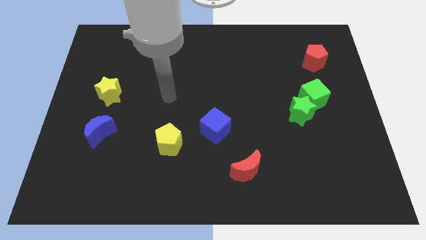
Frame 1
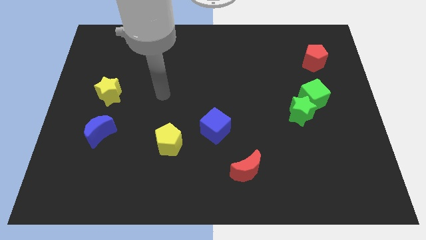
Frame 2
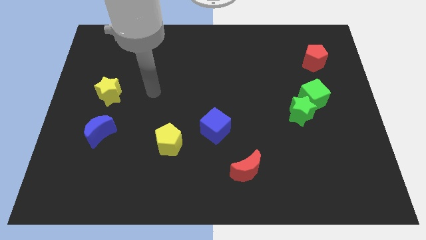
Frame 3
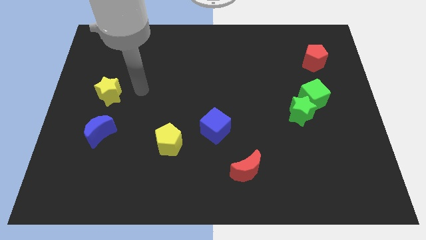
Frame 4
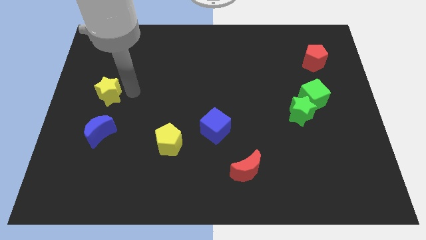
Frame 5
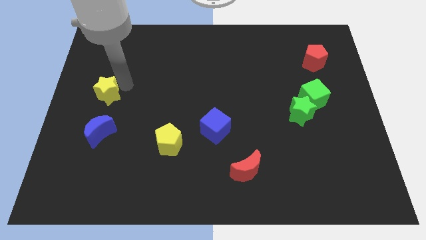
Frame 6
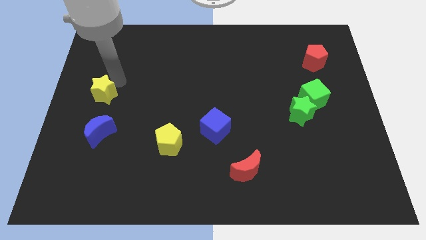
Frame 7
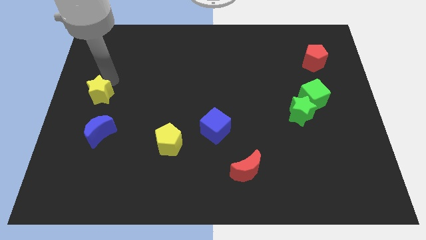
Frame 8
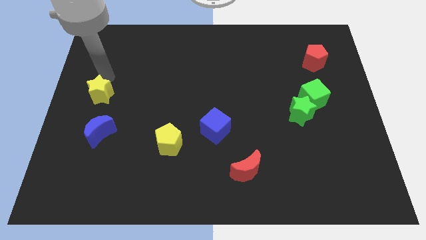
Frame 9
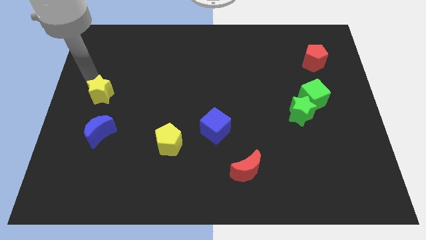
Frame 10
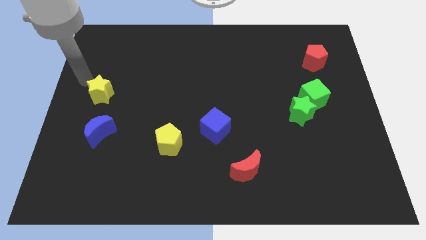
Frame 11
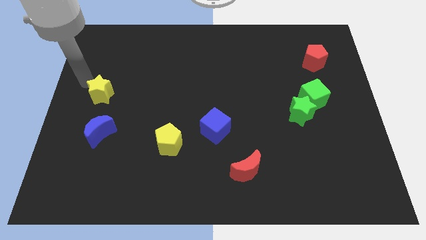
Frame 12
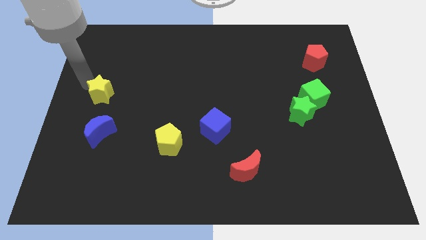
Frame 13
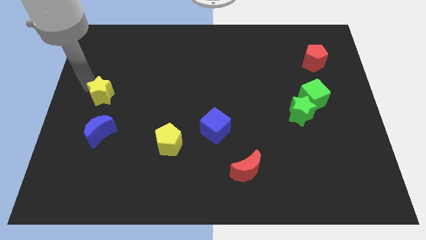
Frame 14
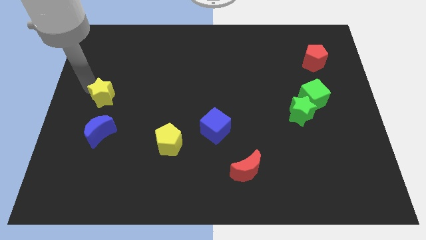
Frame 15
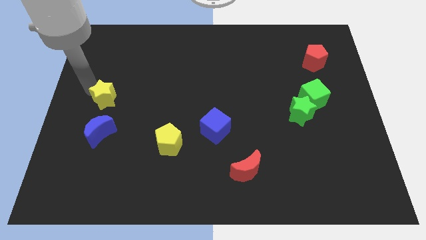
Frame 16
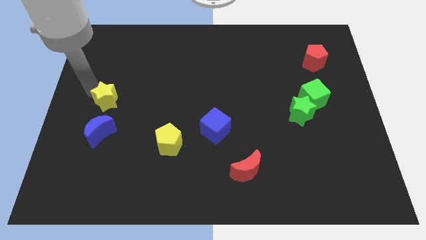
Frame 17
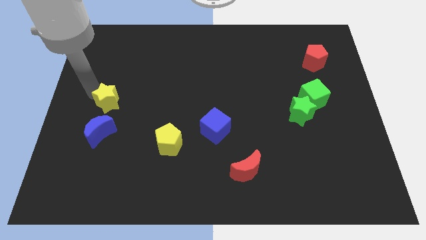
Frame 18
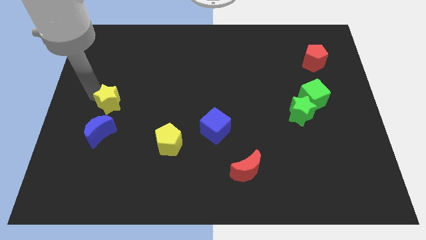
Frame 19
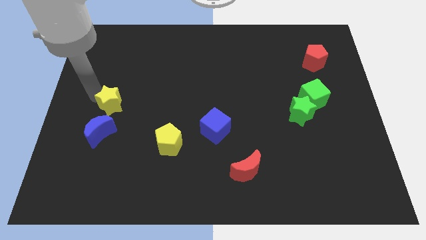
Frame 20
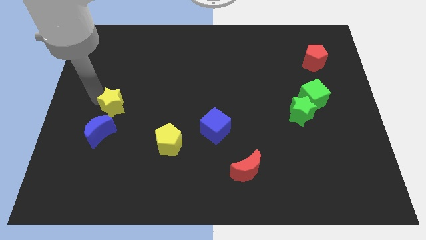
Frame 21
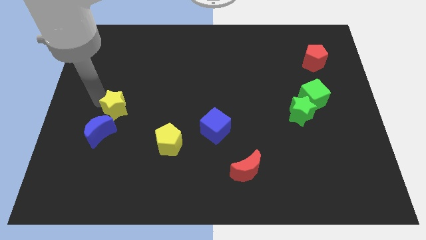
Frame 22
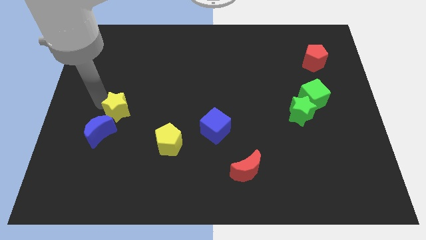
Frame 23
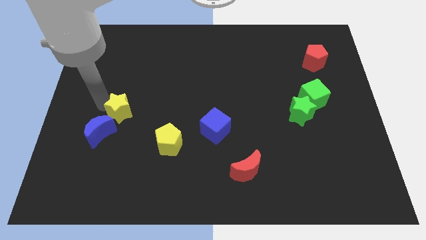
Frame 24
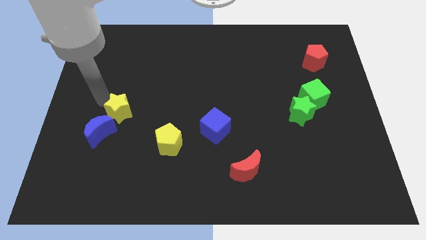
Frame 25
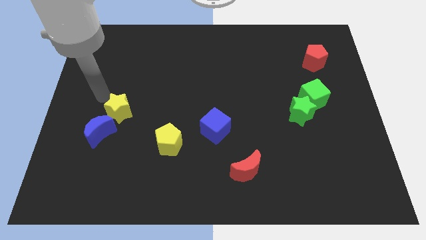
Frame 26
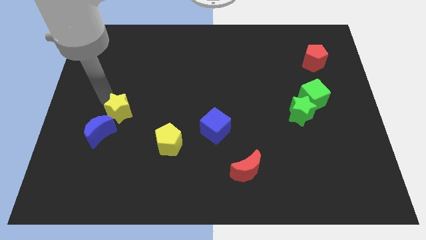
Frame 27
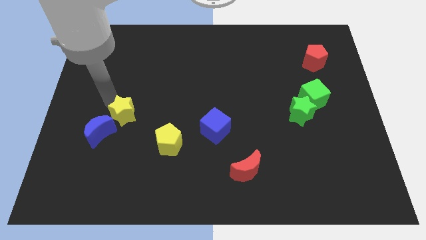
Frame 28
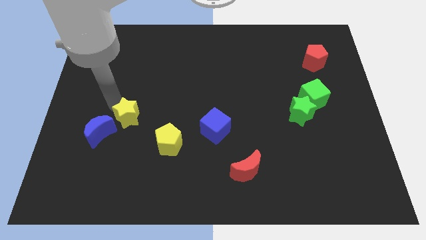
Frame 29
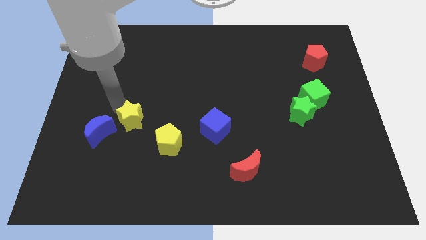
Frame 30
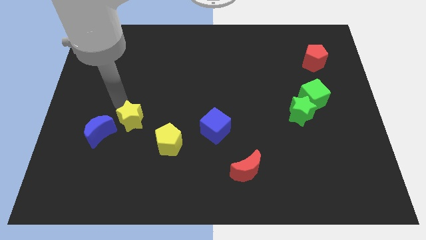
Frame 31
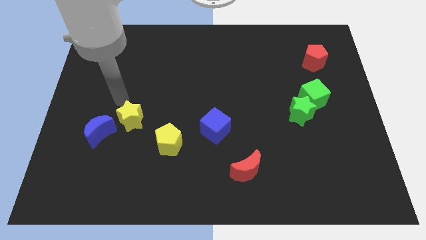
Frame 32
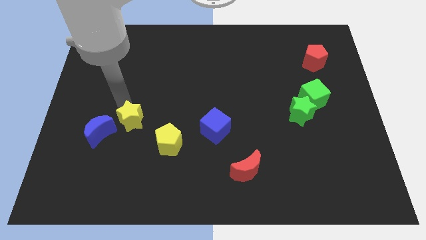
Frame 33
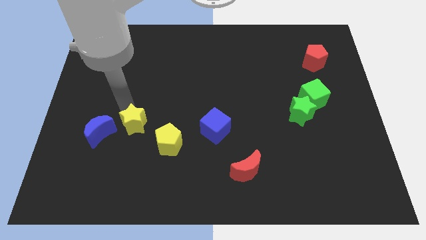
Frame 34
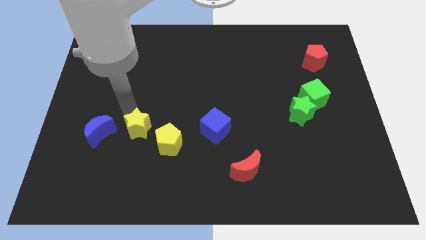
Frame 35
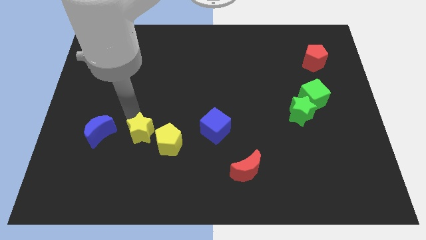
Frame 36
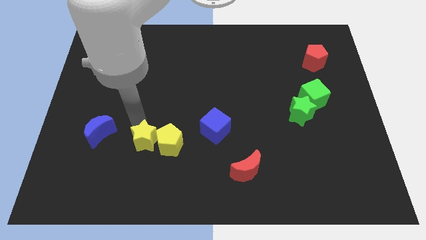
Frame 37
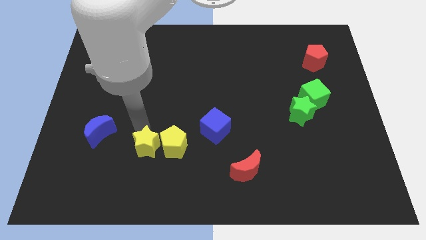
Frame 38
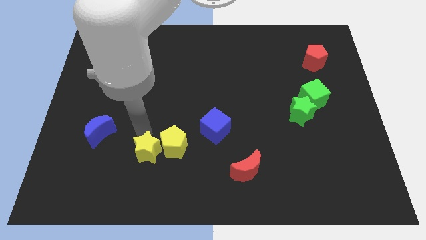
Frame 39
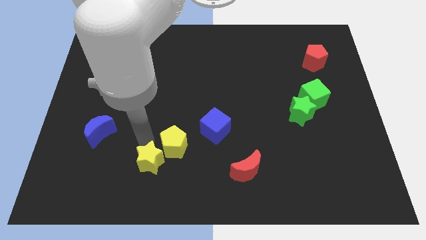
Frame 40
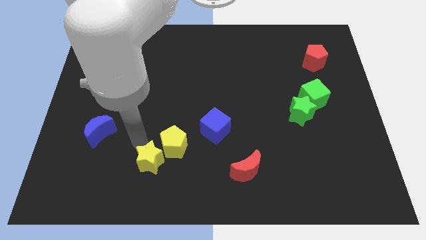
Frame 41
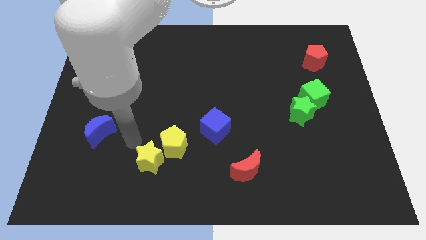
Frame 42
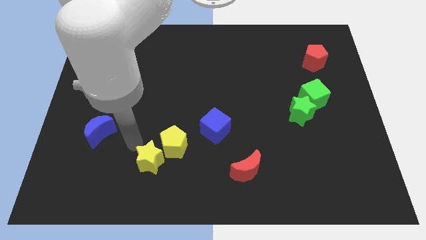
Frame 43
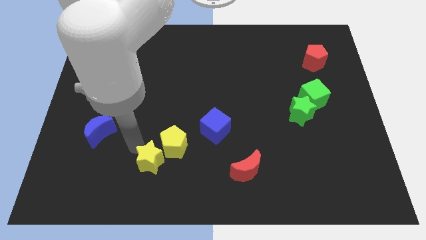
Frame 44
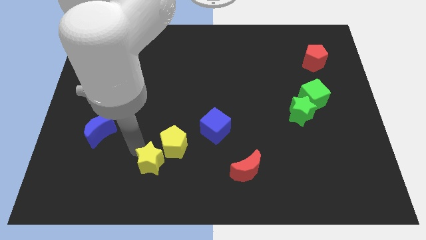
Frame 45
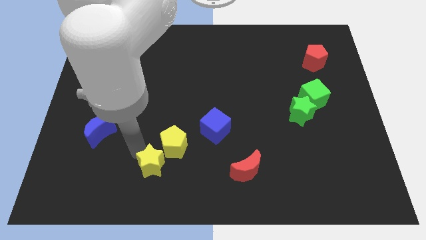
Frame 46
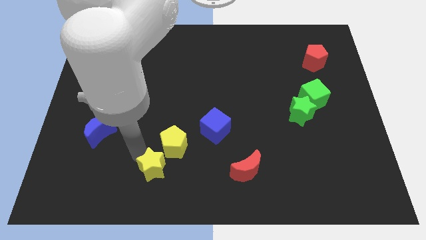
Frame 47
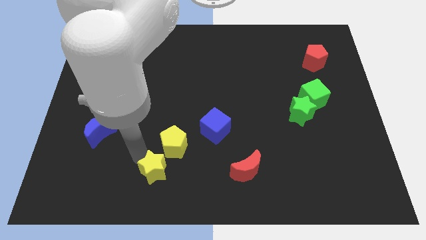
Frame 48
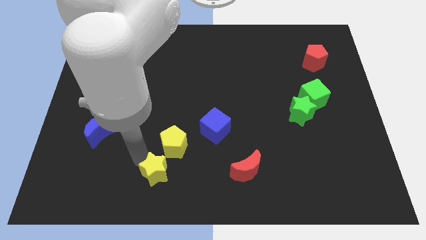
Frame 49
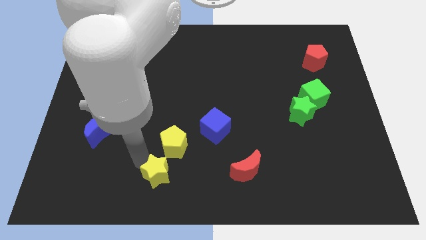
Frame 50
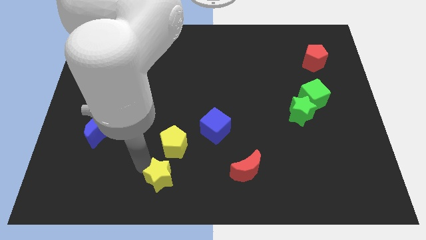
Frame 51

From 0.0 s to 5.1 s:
slide the yellow star to the bottom

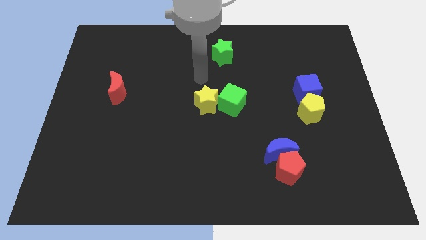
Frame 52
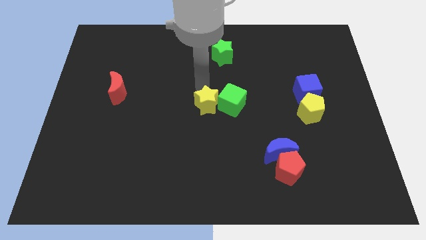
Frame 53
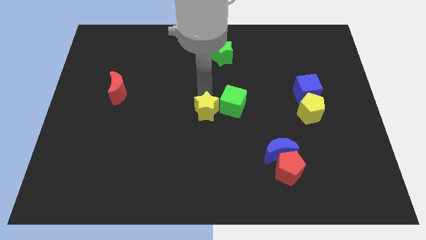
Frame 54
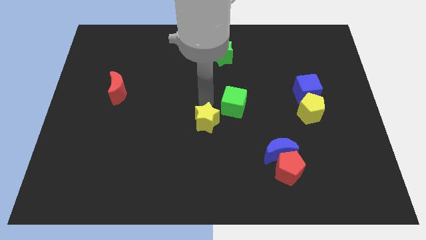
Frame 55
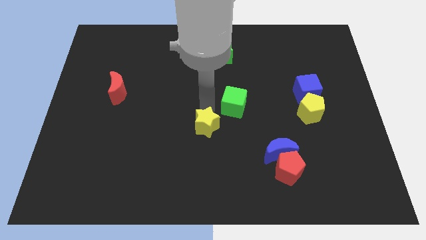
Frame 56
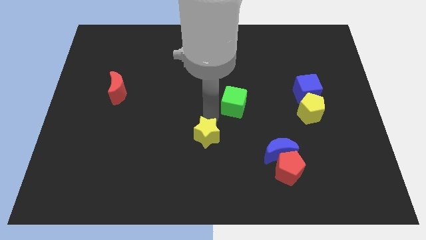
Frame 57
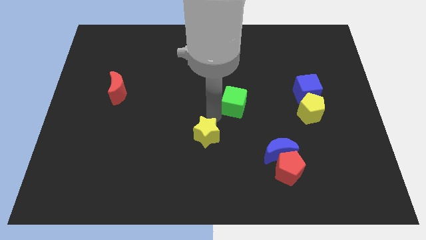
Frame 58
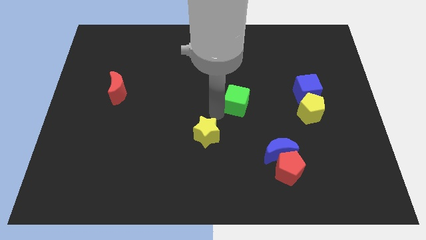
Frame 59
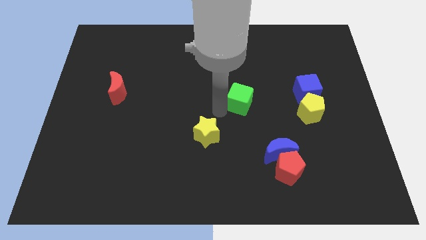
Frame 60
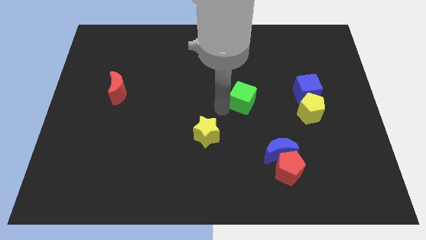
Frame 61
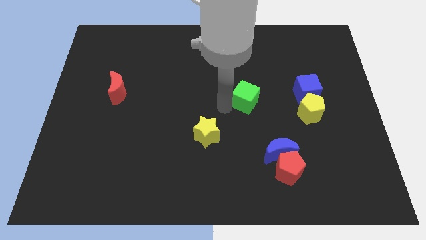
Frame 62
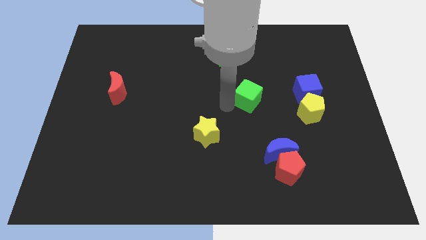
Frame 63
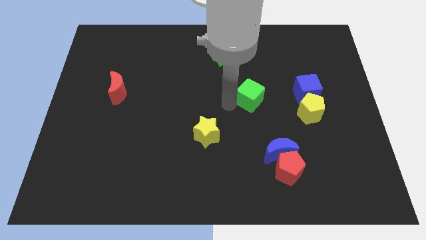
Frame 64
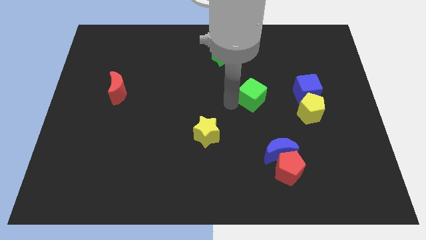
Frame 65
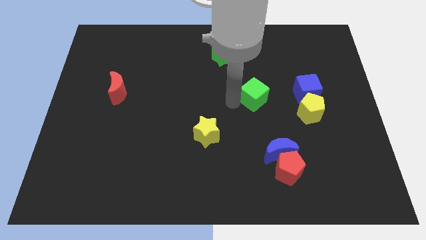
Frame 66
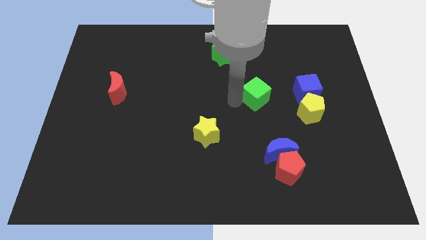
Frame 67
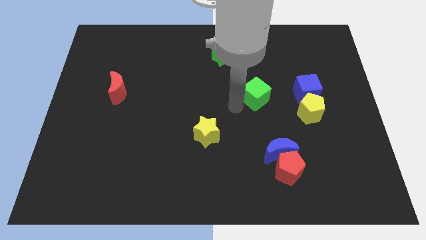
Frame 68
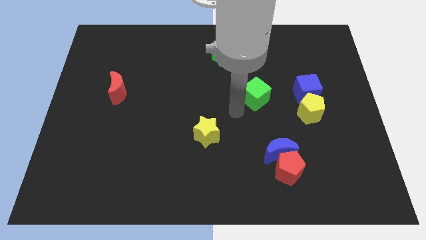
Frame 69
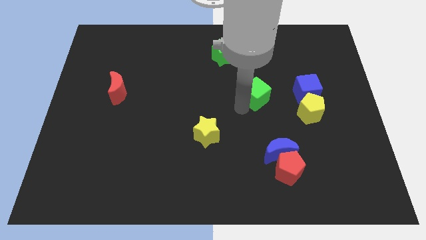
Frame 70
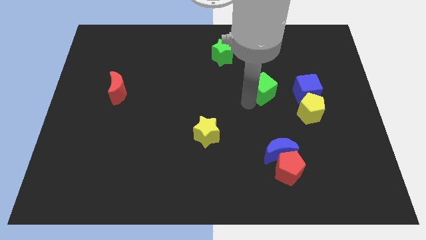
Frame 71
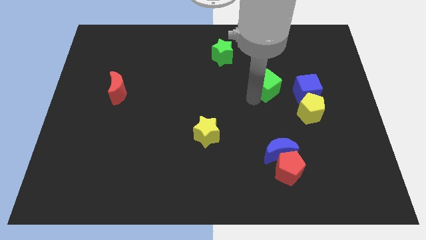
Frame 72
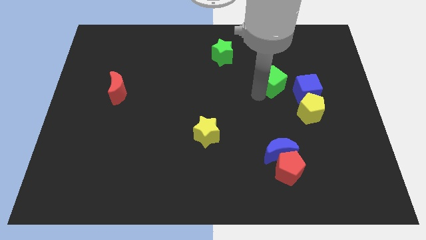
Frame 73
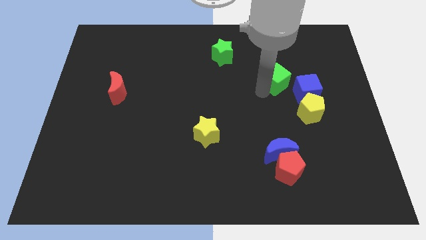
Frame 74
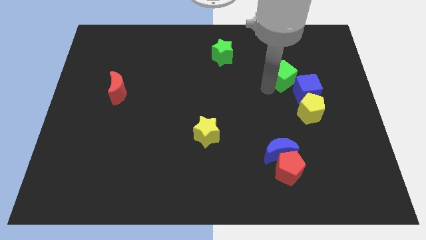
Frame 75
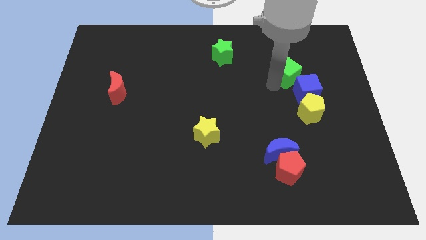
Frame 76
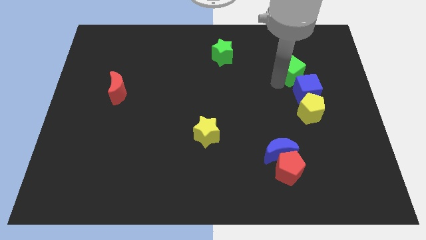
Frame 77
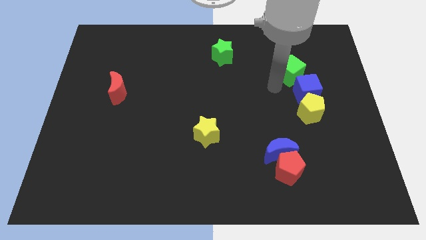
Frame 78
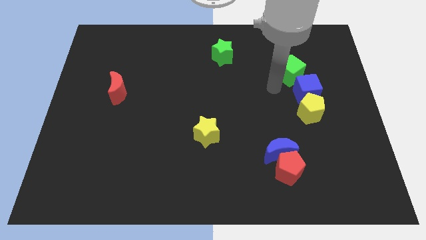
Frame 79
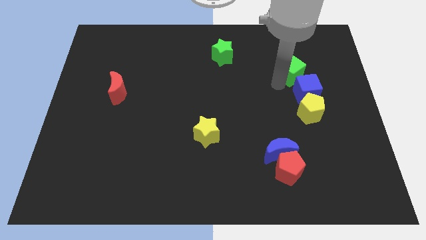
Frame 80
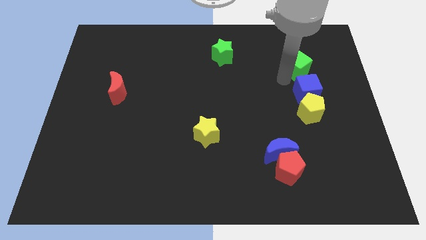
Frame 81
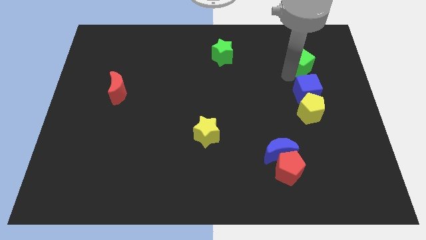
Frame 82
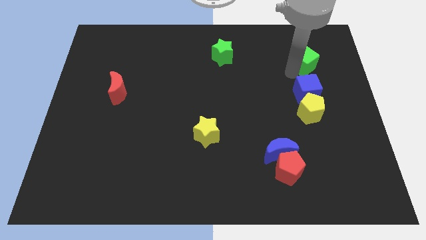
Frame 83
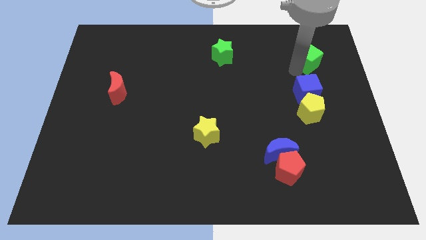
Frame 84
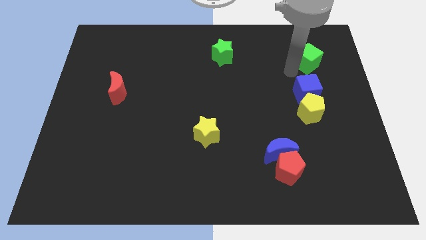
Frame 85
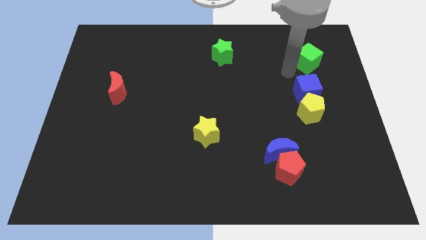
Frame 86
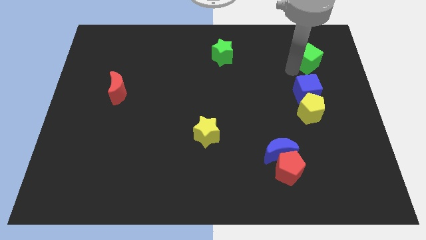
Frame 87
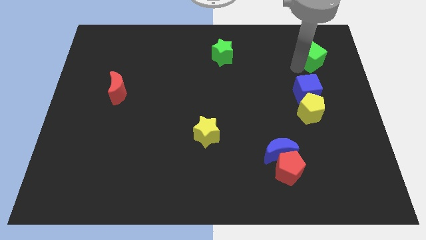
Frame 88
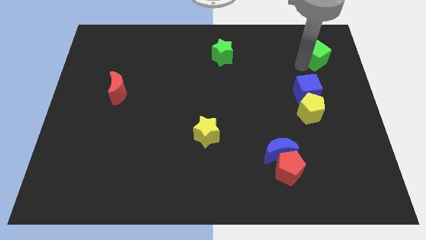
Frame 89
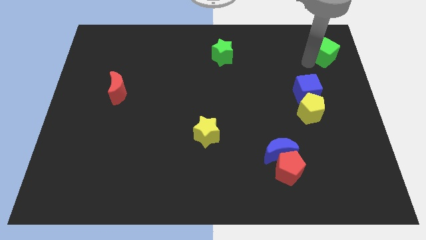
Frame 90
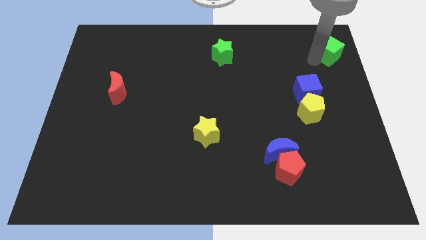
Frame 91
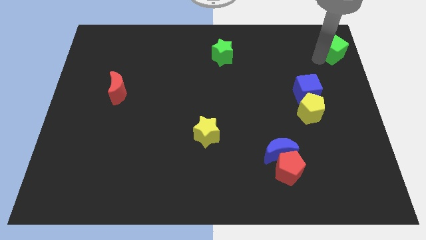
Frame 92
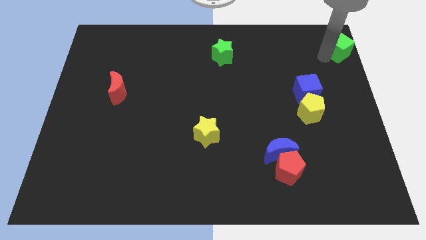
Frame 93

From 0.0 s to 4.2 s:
put the green cube to the upper right corner
